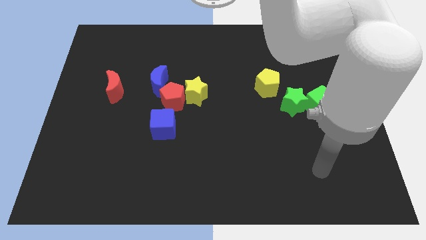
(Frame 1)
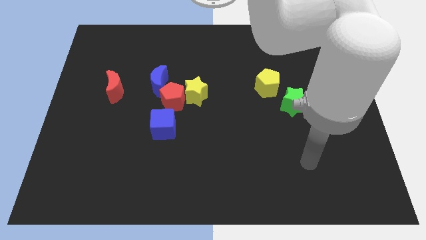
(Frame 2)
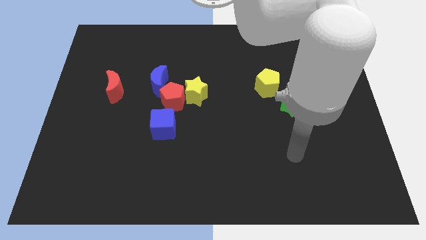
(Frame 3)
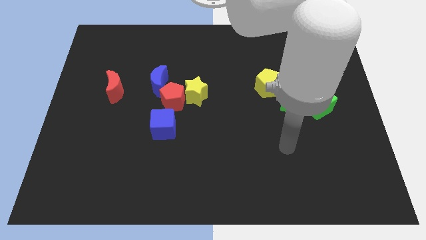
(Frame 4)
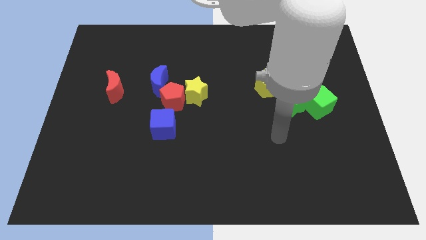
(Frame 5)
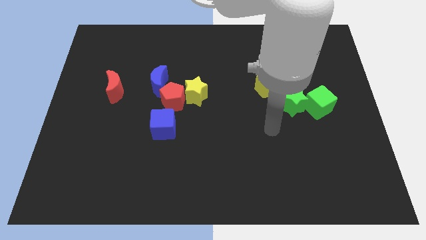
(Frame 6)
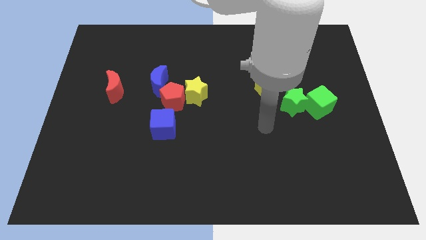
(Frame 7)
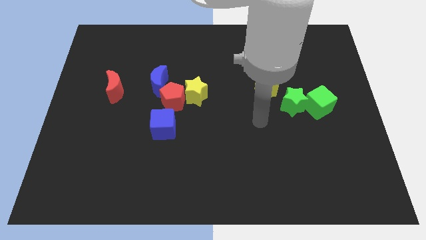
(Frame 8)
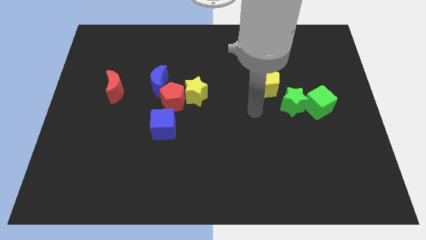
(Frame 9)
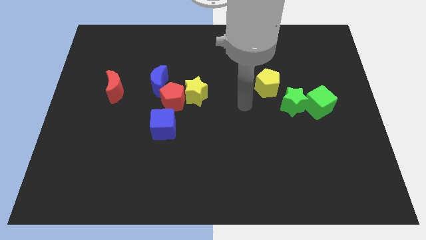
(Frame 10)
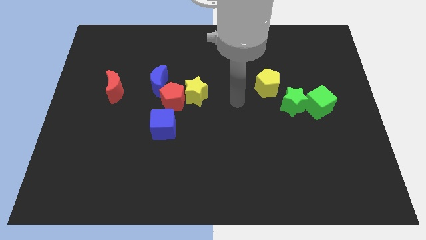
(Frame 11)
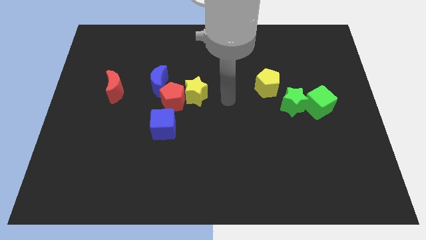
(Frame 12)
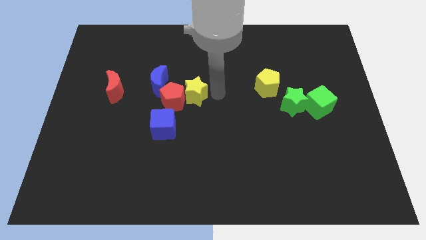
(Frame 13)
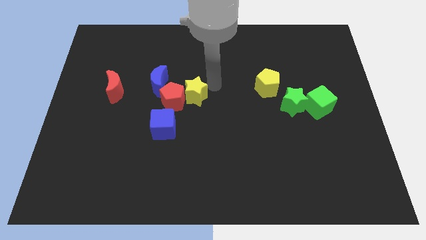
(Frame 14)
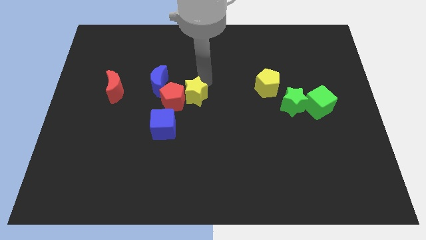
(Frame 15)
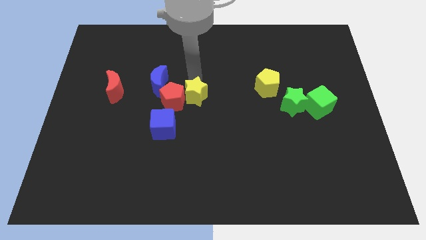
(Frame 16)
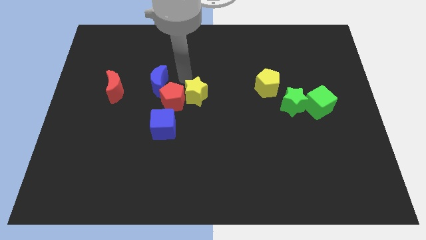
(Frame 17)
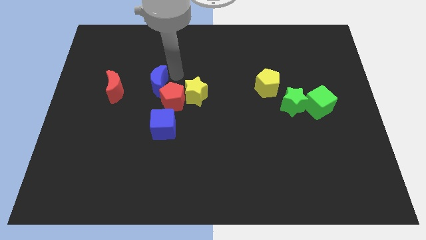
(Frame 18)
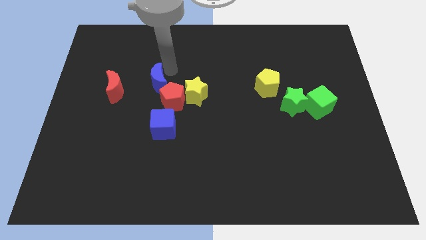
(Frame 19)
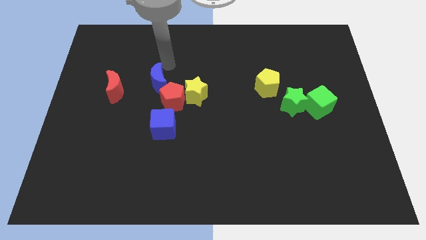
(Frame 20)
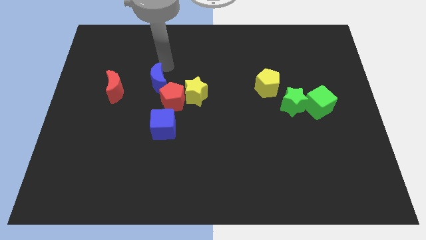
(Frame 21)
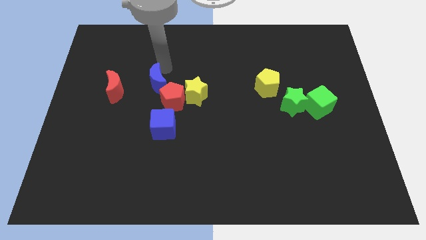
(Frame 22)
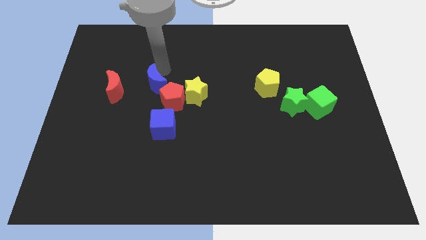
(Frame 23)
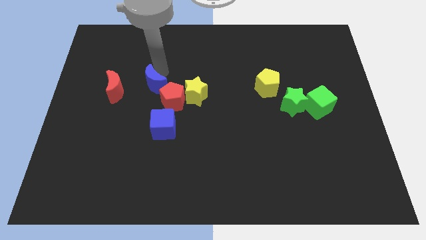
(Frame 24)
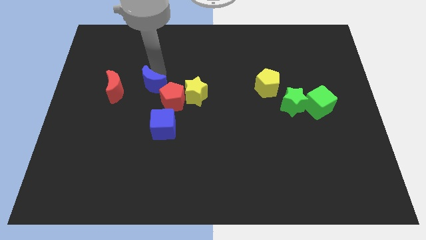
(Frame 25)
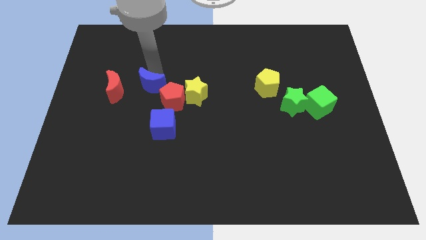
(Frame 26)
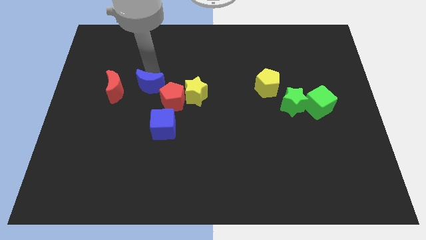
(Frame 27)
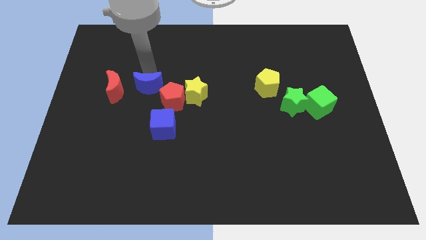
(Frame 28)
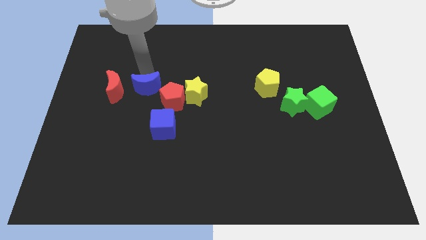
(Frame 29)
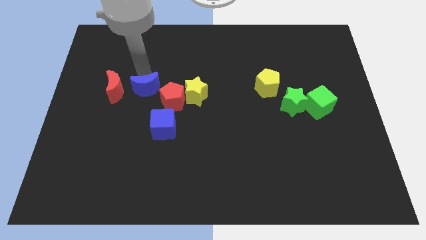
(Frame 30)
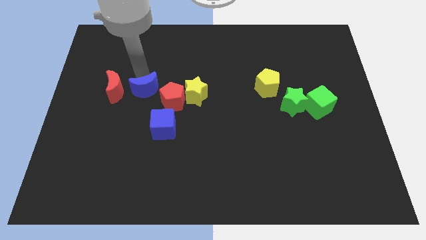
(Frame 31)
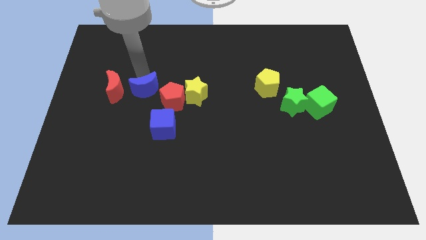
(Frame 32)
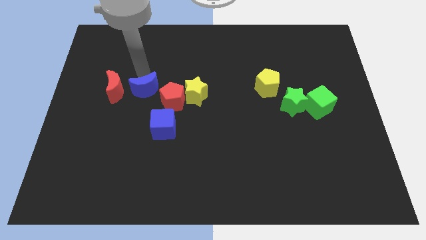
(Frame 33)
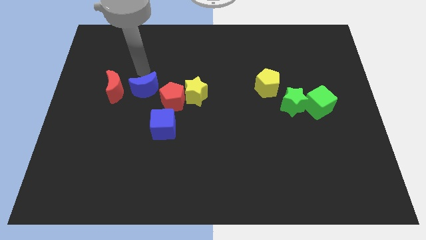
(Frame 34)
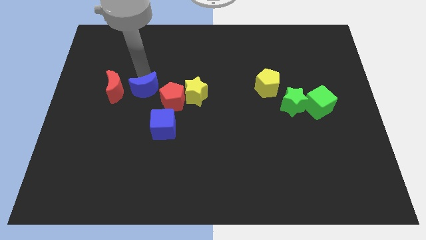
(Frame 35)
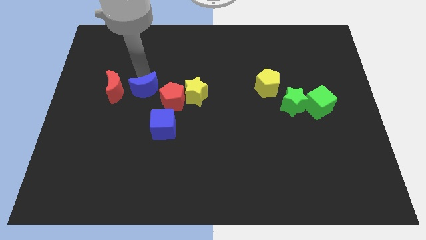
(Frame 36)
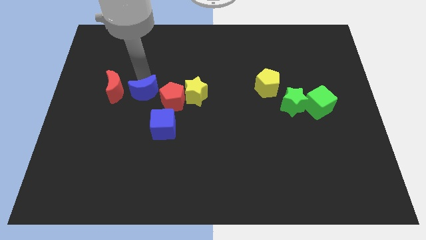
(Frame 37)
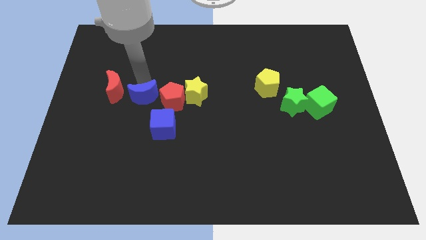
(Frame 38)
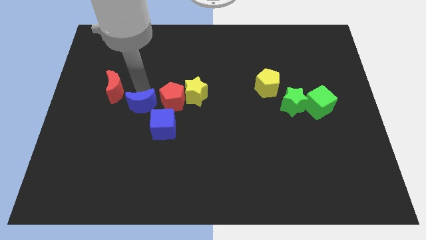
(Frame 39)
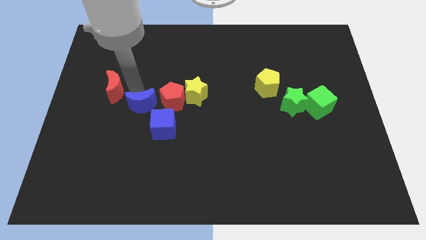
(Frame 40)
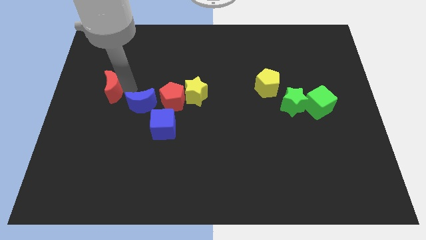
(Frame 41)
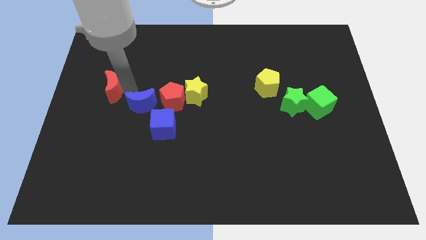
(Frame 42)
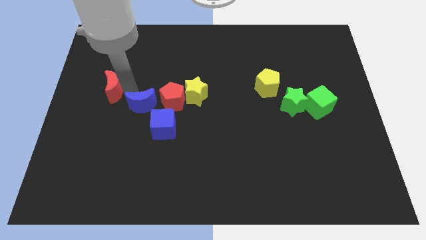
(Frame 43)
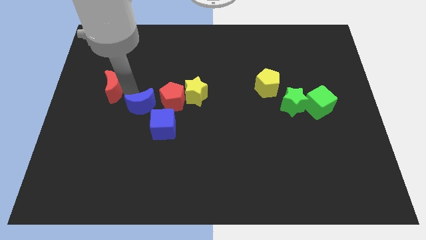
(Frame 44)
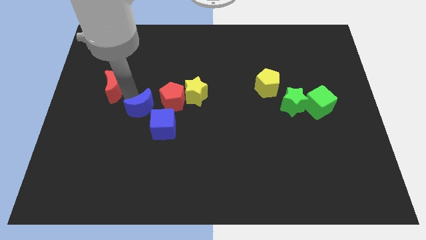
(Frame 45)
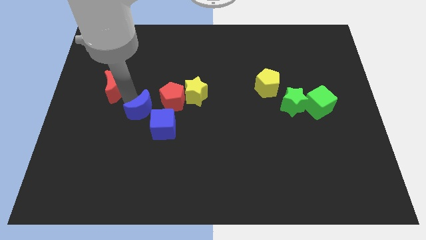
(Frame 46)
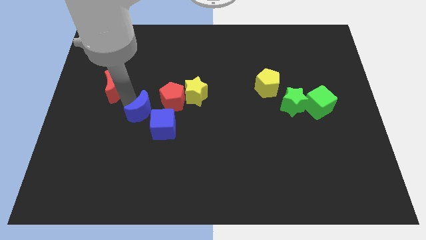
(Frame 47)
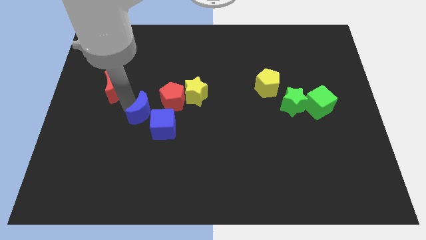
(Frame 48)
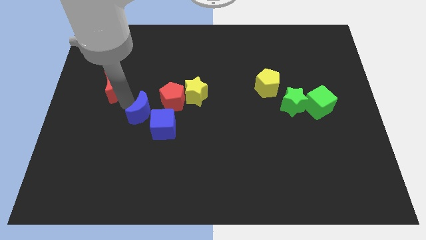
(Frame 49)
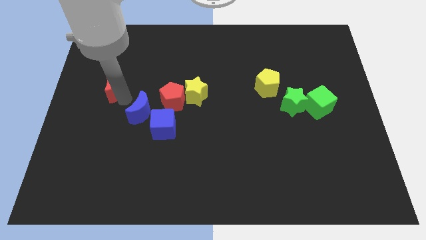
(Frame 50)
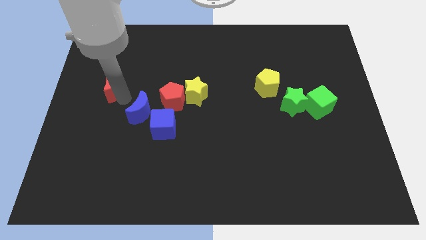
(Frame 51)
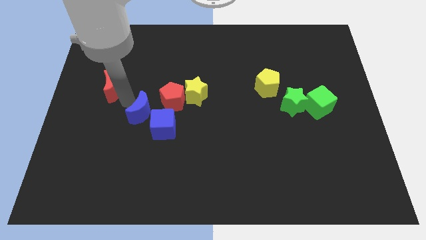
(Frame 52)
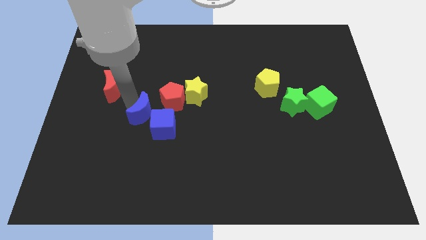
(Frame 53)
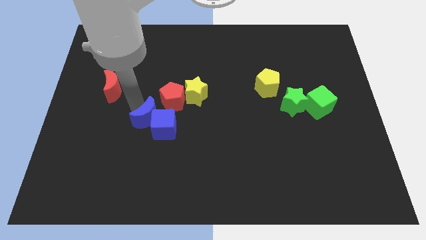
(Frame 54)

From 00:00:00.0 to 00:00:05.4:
move the blue moon next to the blue cube

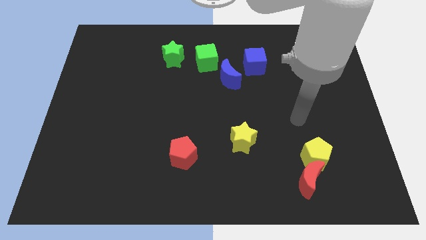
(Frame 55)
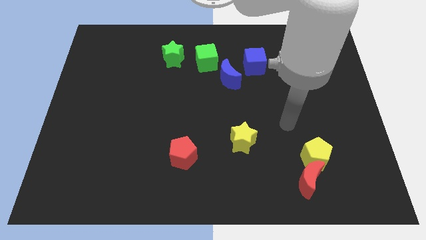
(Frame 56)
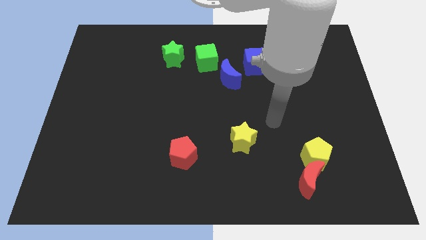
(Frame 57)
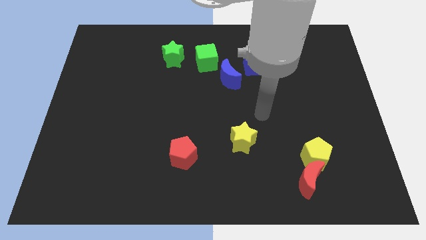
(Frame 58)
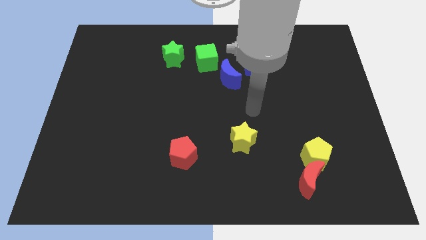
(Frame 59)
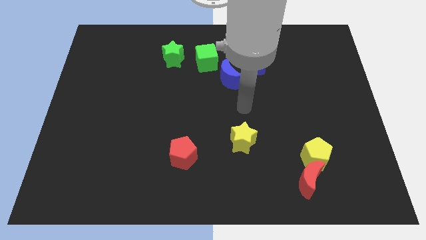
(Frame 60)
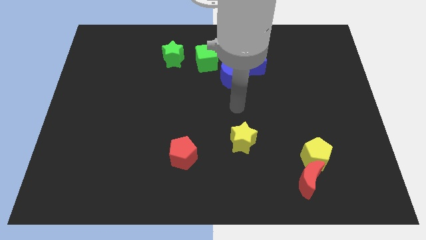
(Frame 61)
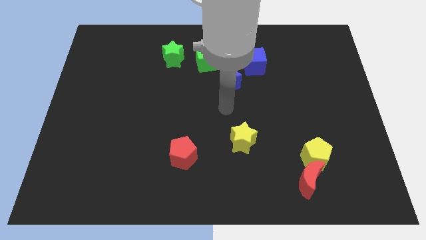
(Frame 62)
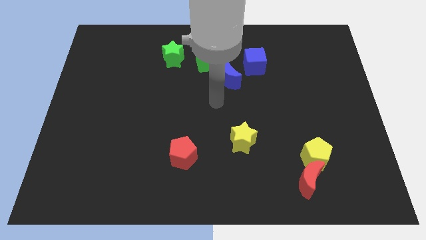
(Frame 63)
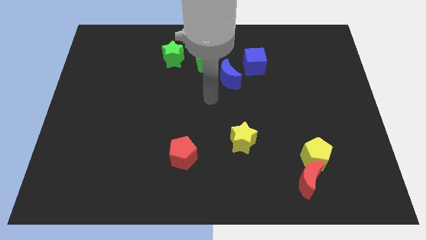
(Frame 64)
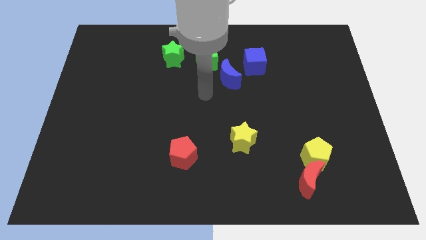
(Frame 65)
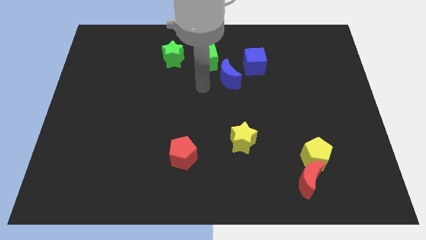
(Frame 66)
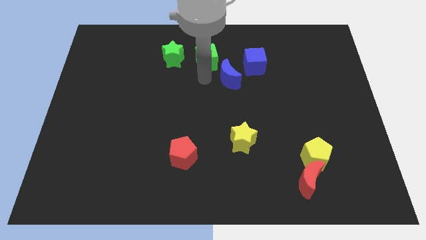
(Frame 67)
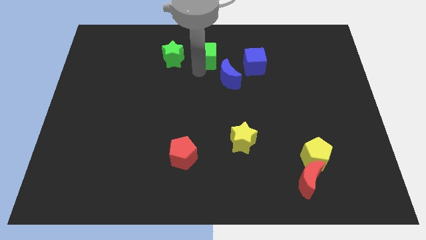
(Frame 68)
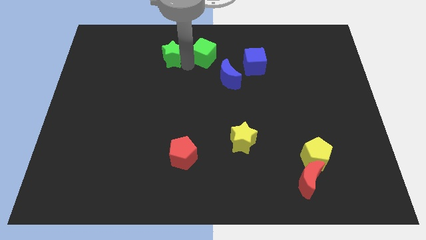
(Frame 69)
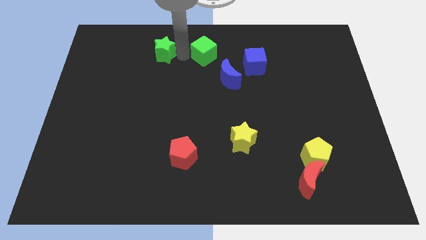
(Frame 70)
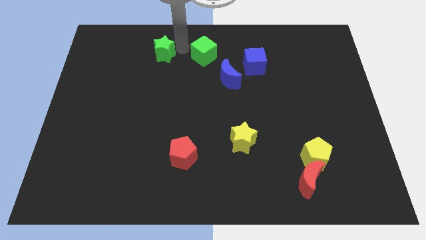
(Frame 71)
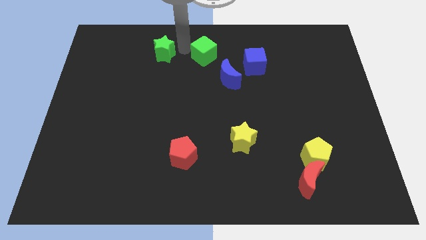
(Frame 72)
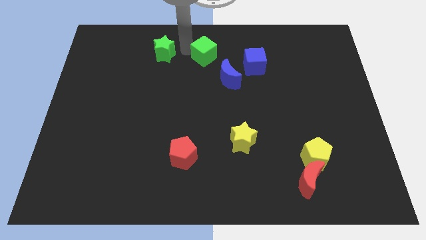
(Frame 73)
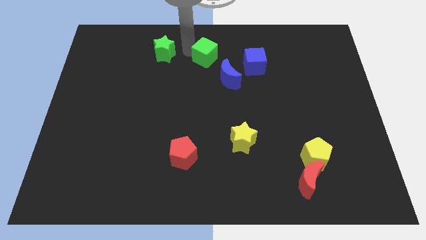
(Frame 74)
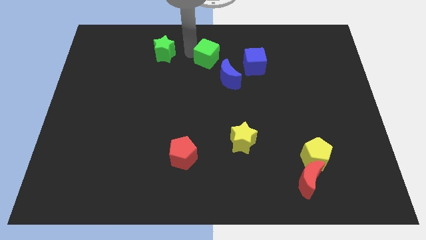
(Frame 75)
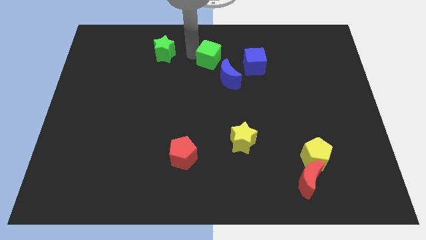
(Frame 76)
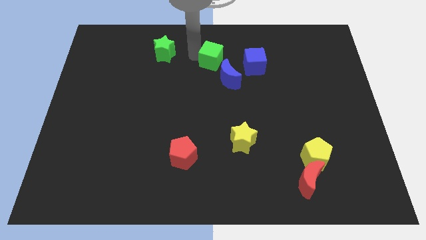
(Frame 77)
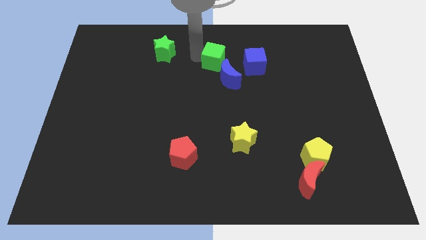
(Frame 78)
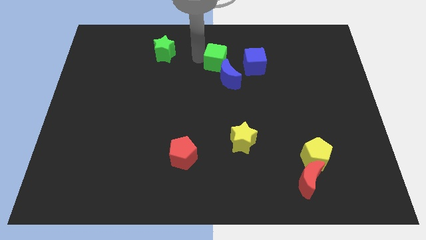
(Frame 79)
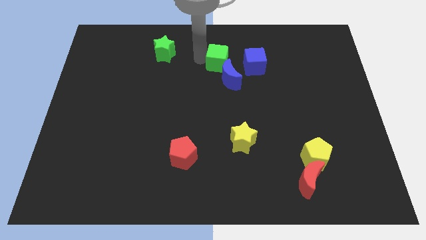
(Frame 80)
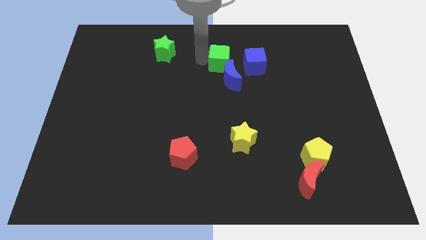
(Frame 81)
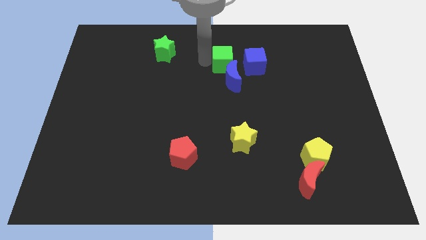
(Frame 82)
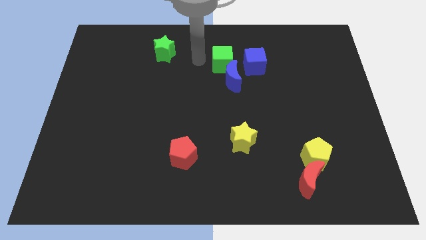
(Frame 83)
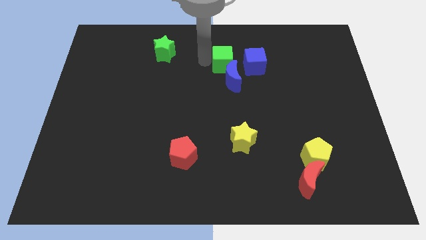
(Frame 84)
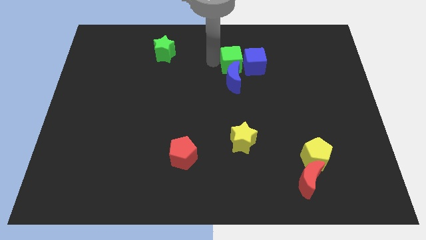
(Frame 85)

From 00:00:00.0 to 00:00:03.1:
push the green cube towards the blue cube
